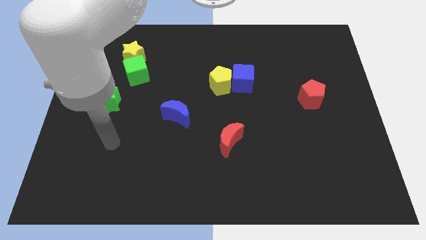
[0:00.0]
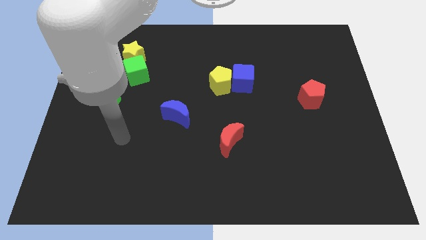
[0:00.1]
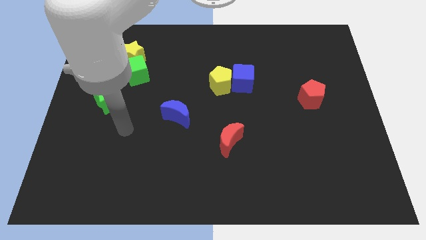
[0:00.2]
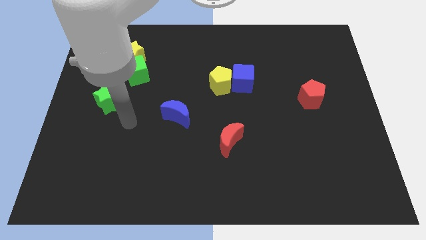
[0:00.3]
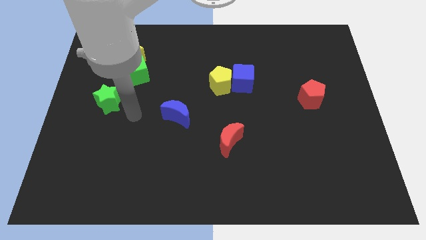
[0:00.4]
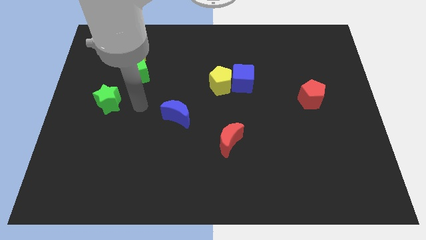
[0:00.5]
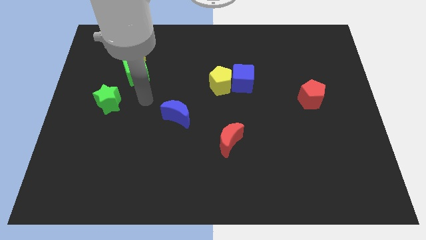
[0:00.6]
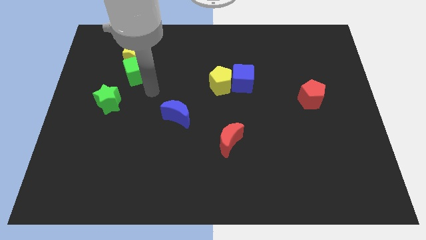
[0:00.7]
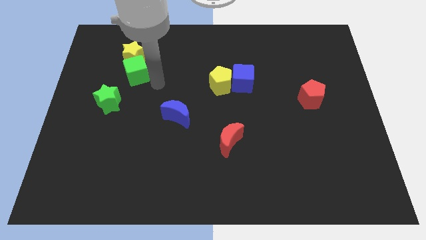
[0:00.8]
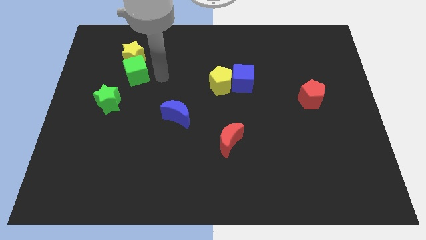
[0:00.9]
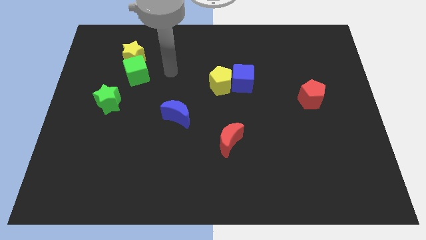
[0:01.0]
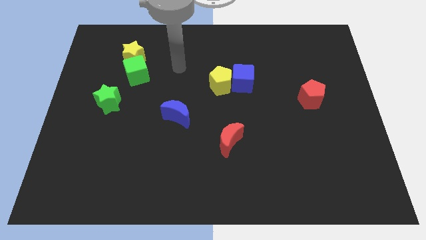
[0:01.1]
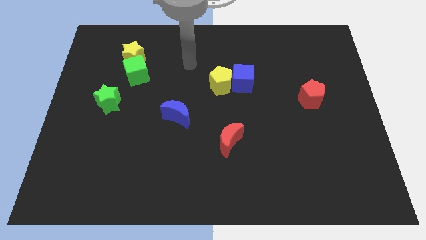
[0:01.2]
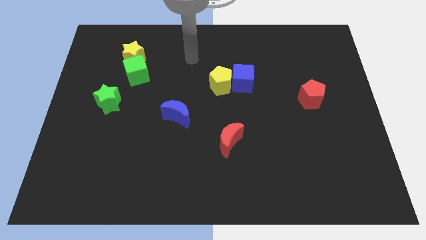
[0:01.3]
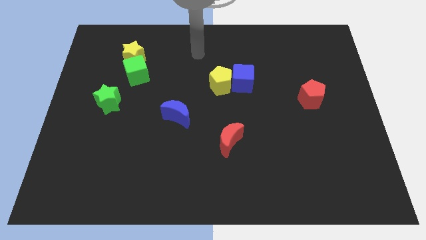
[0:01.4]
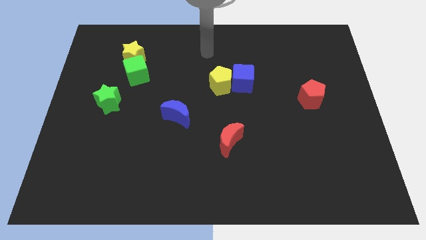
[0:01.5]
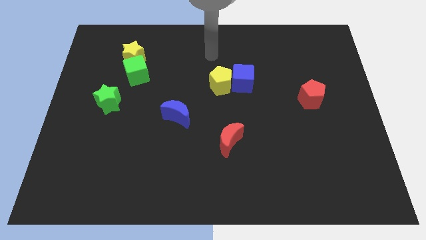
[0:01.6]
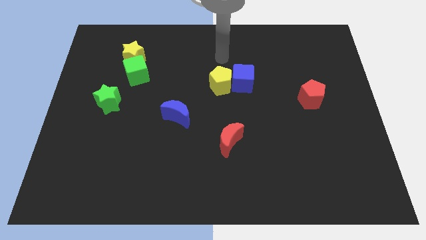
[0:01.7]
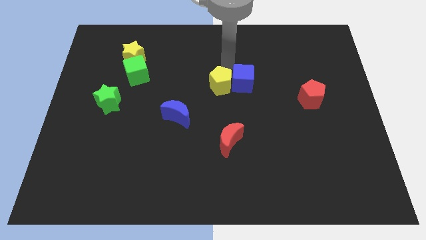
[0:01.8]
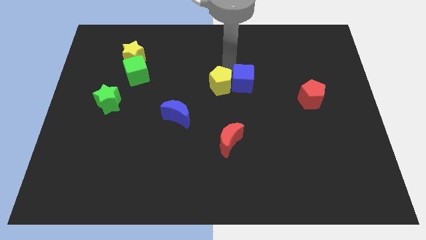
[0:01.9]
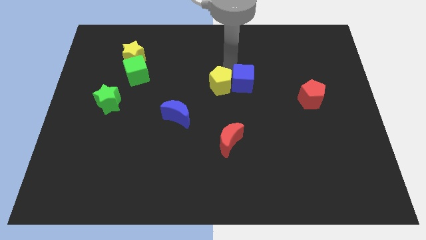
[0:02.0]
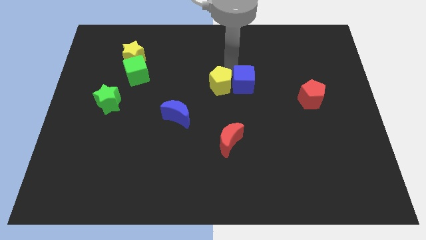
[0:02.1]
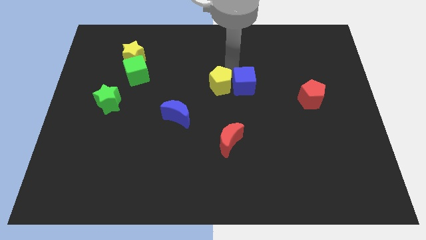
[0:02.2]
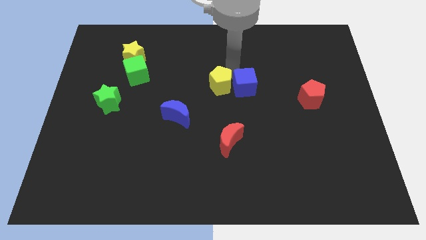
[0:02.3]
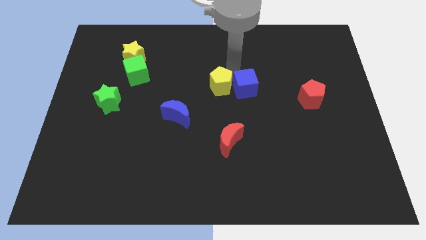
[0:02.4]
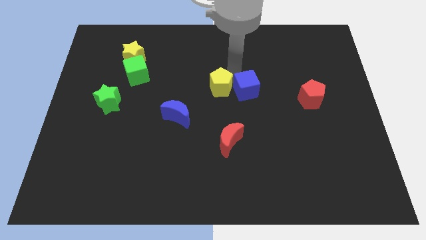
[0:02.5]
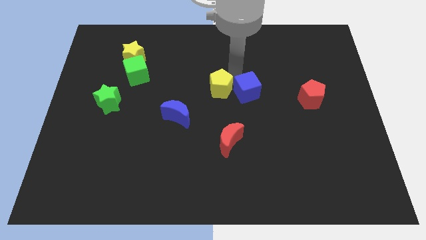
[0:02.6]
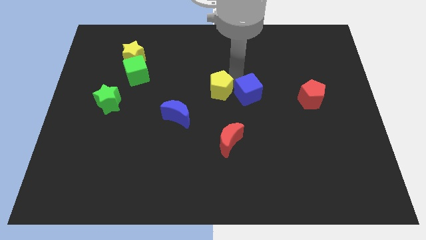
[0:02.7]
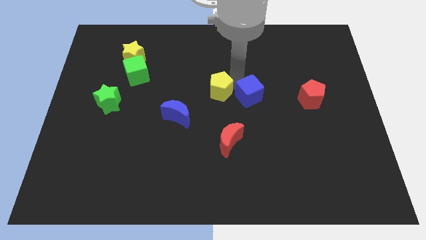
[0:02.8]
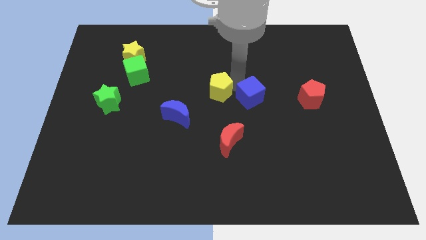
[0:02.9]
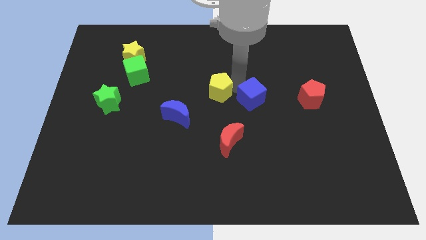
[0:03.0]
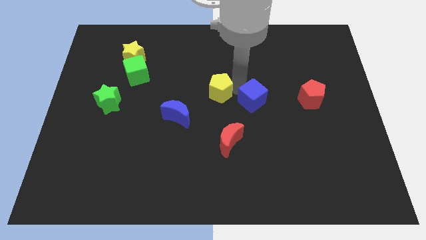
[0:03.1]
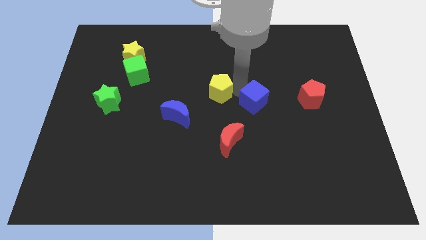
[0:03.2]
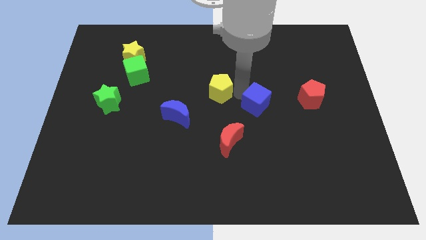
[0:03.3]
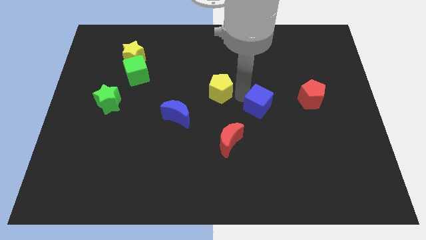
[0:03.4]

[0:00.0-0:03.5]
slightly slide the blue cube diagonally down and right

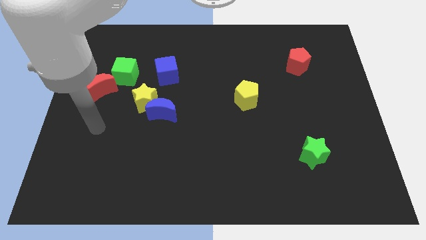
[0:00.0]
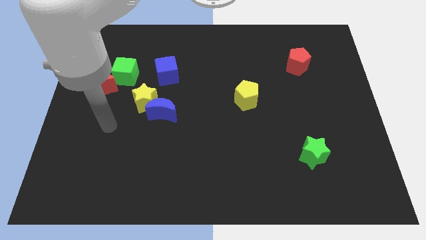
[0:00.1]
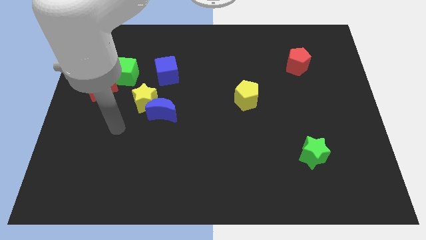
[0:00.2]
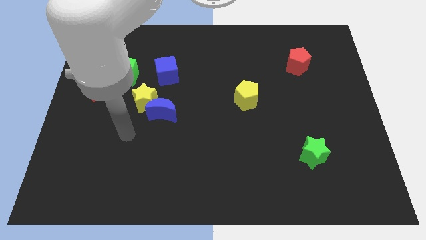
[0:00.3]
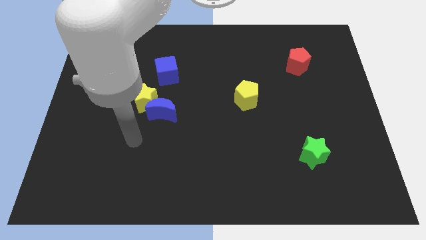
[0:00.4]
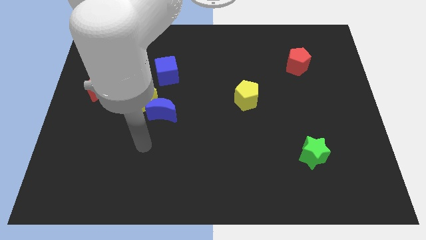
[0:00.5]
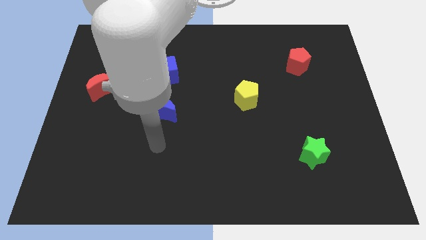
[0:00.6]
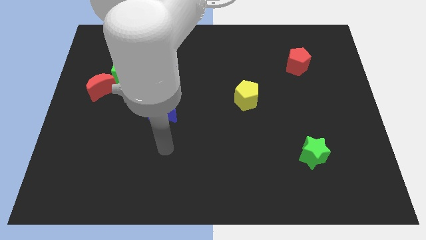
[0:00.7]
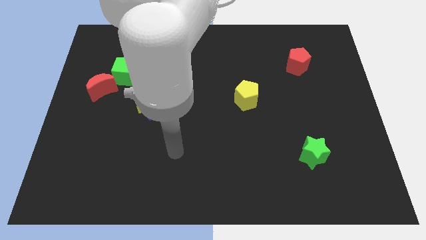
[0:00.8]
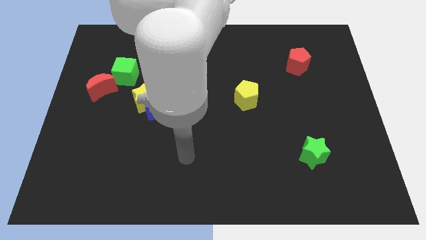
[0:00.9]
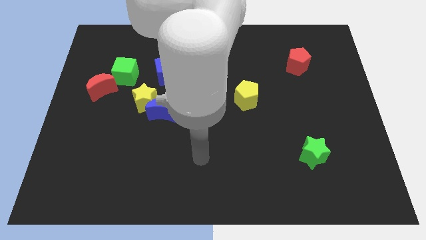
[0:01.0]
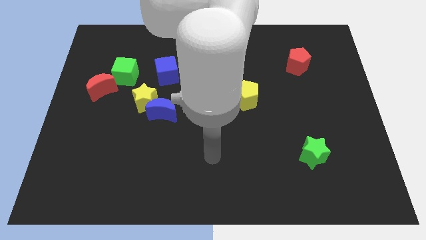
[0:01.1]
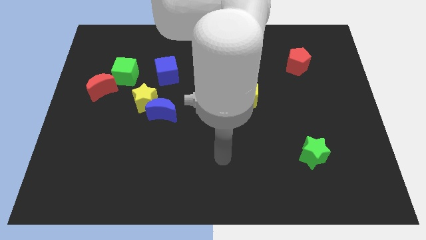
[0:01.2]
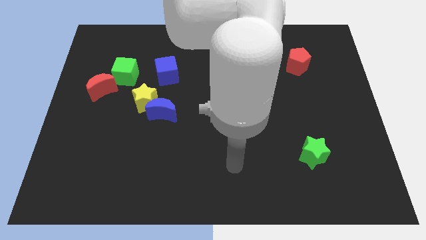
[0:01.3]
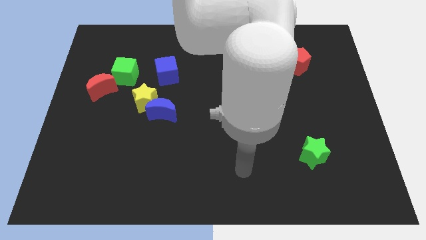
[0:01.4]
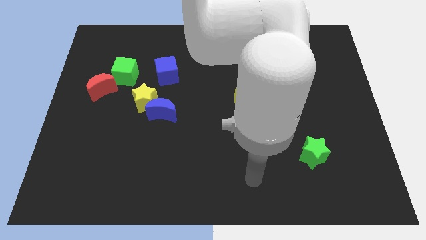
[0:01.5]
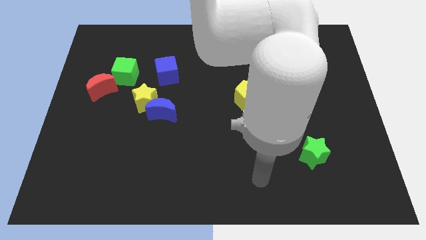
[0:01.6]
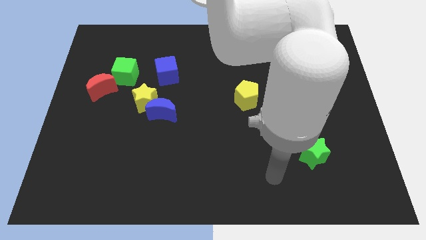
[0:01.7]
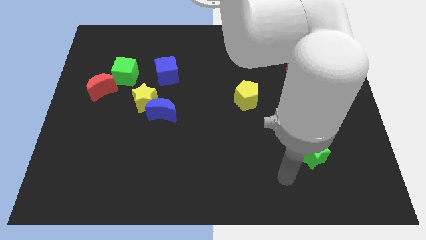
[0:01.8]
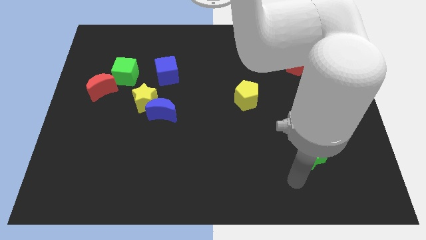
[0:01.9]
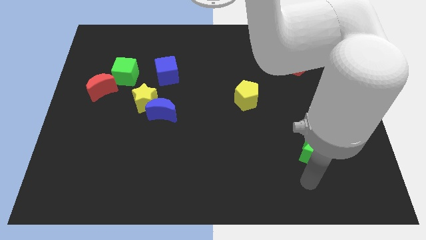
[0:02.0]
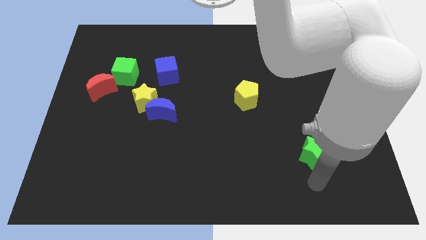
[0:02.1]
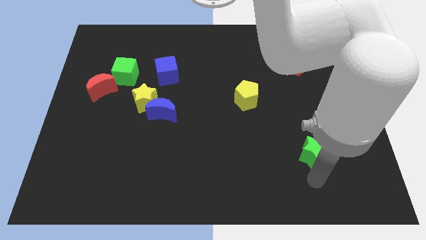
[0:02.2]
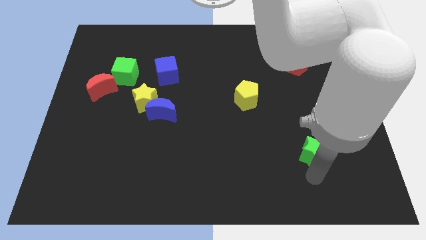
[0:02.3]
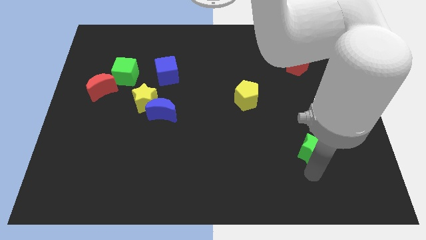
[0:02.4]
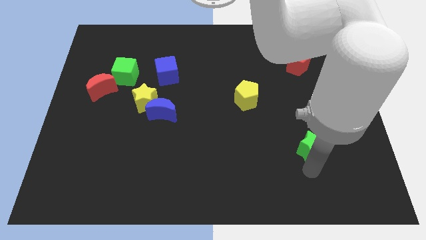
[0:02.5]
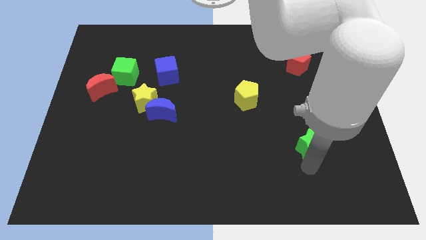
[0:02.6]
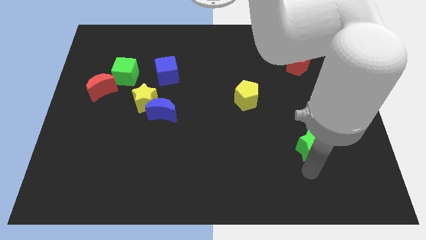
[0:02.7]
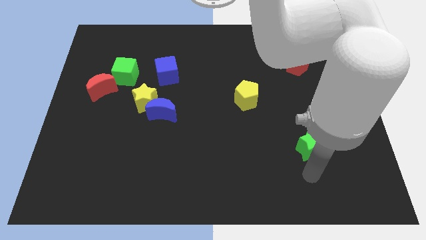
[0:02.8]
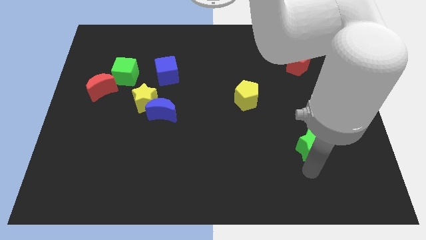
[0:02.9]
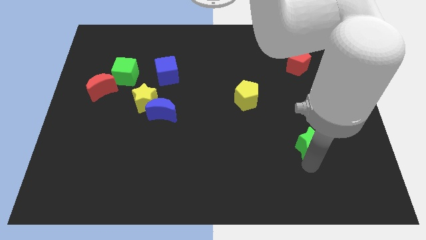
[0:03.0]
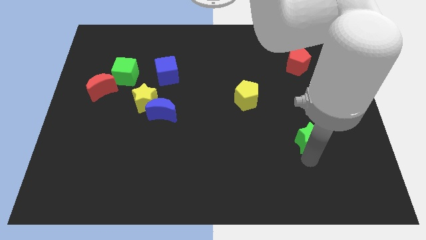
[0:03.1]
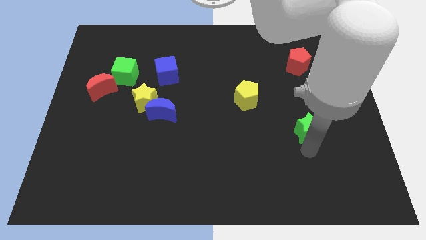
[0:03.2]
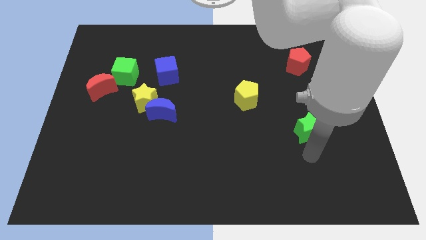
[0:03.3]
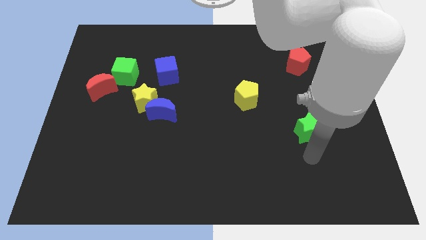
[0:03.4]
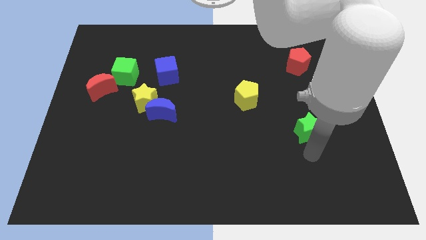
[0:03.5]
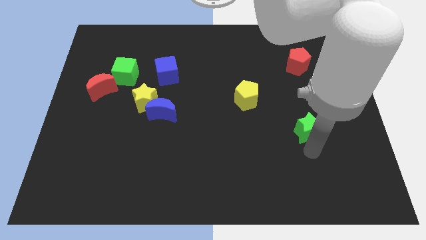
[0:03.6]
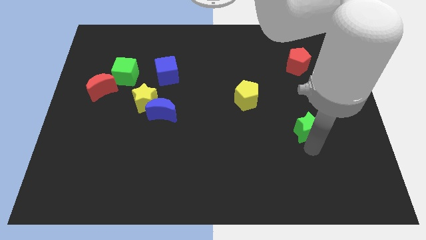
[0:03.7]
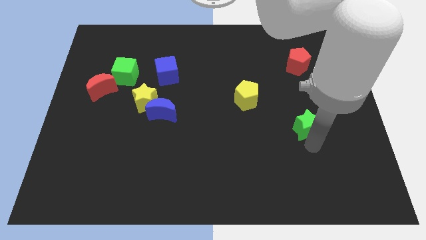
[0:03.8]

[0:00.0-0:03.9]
slightly move the green star up

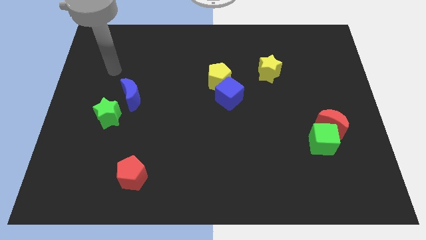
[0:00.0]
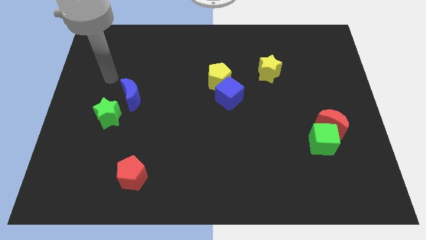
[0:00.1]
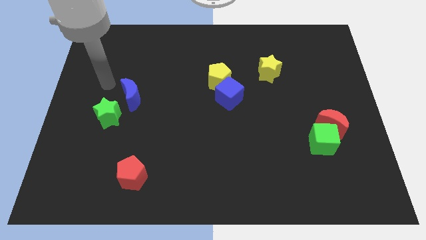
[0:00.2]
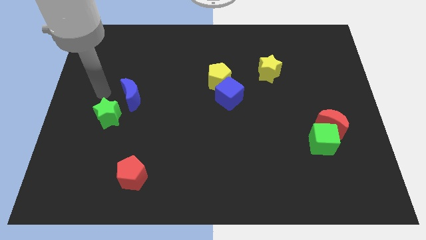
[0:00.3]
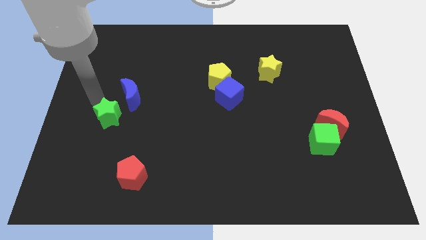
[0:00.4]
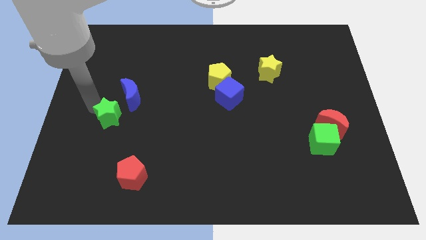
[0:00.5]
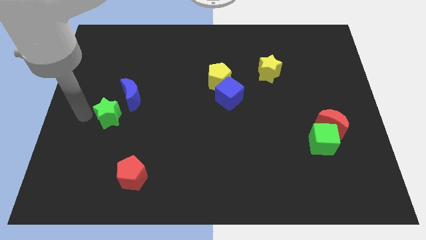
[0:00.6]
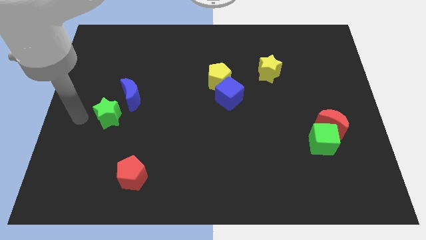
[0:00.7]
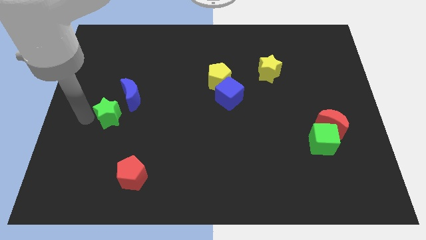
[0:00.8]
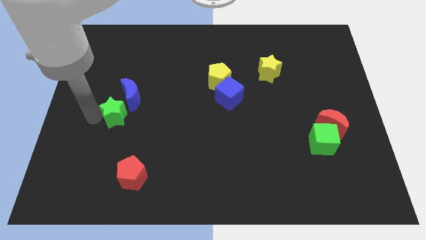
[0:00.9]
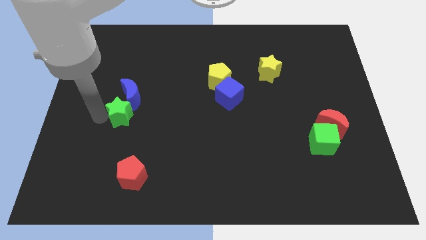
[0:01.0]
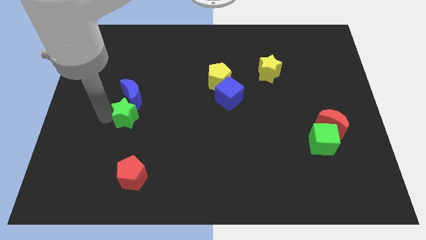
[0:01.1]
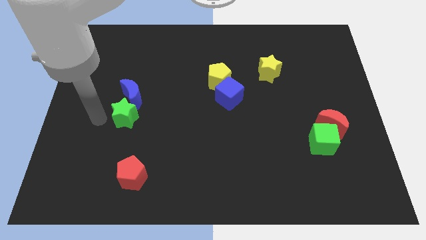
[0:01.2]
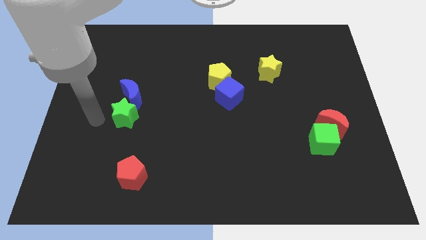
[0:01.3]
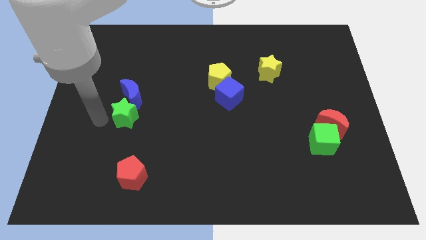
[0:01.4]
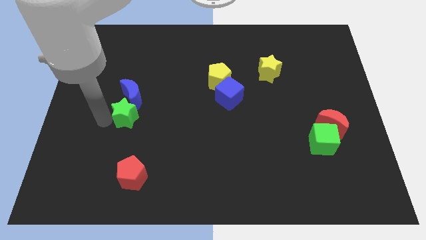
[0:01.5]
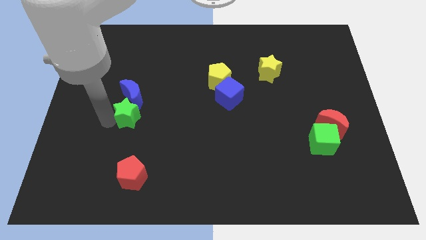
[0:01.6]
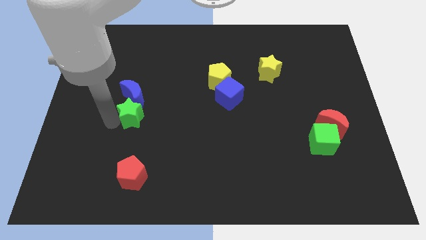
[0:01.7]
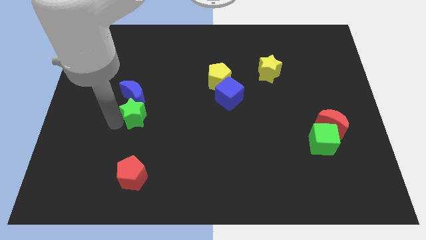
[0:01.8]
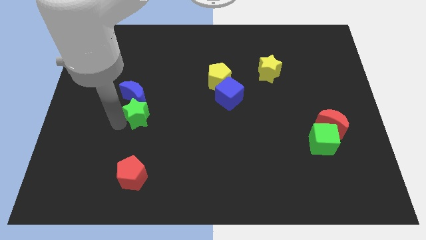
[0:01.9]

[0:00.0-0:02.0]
slightly slide the green star right
